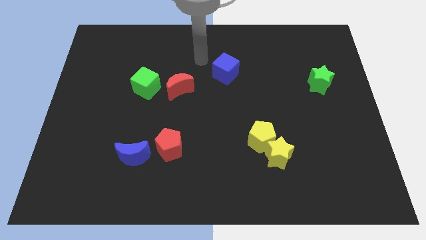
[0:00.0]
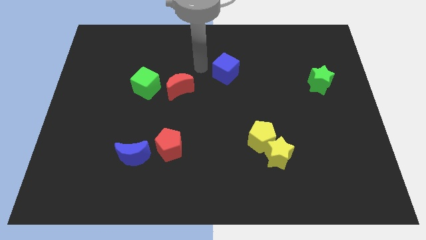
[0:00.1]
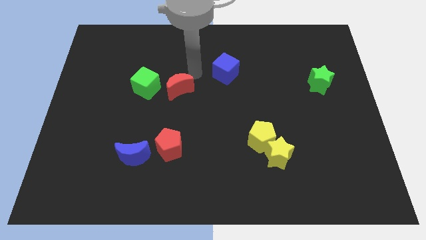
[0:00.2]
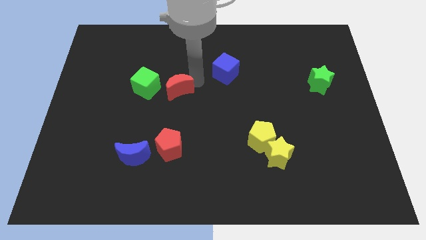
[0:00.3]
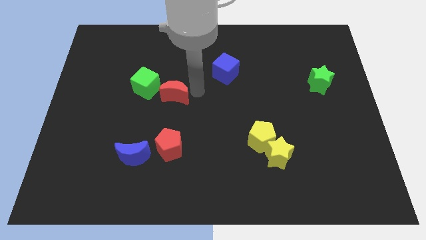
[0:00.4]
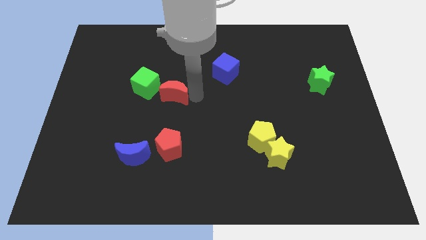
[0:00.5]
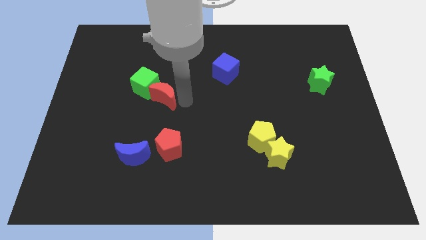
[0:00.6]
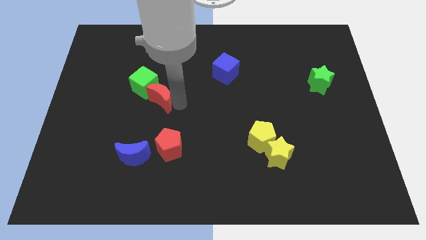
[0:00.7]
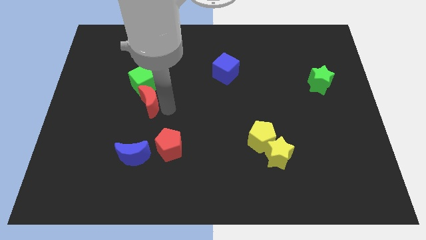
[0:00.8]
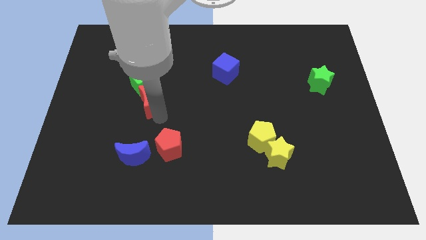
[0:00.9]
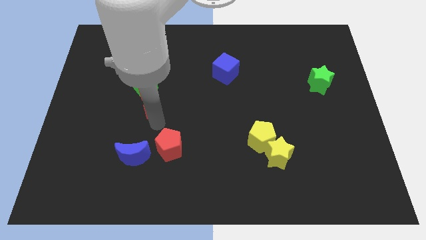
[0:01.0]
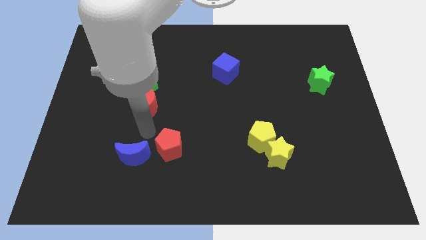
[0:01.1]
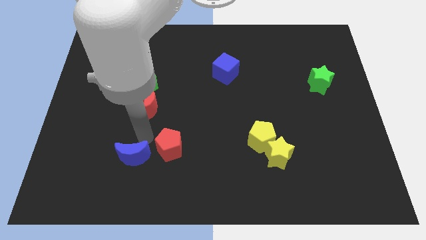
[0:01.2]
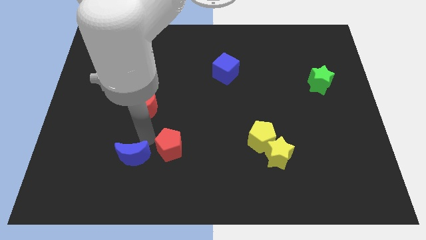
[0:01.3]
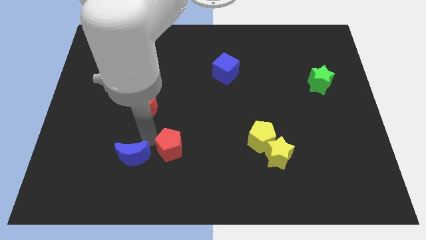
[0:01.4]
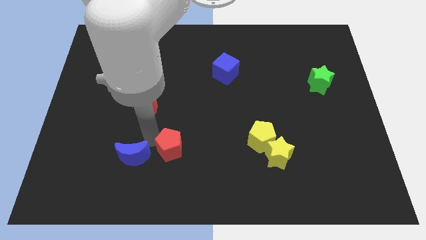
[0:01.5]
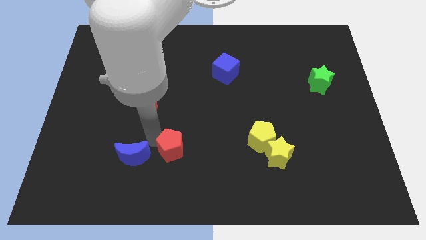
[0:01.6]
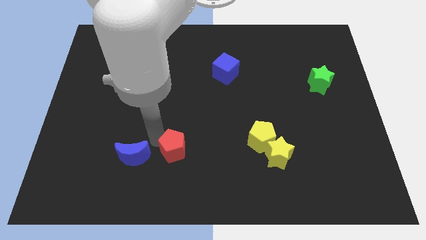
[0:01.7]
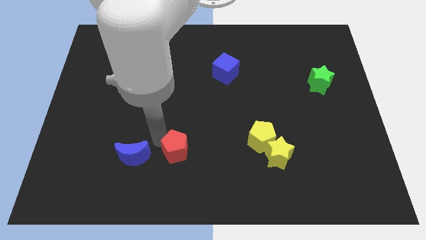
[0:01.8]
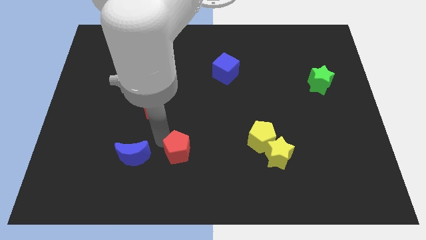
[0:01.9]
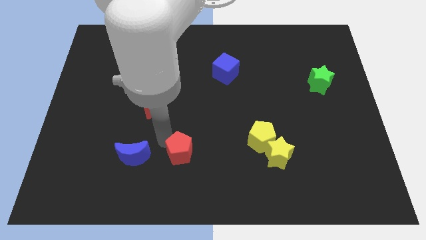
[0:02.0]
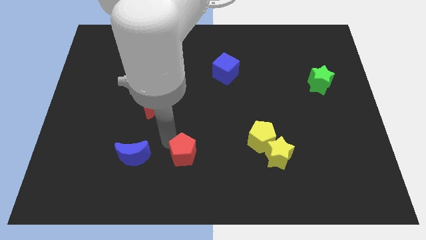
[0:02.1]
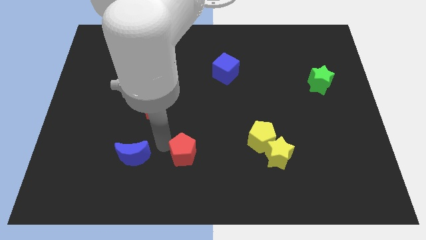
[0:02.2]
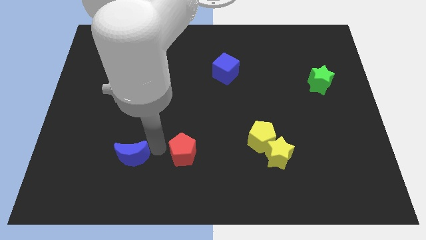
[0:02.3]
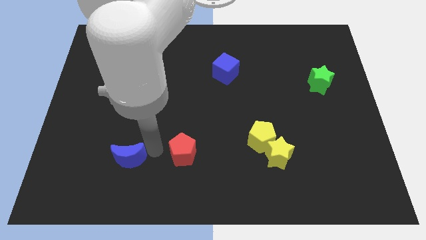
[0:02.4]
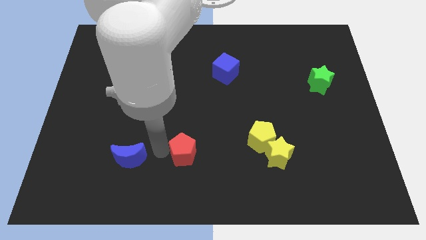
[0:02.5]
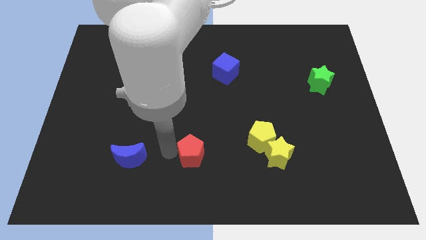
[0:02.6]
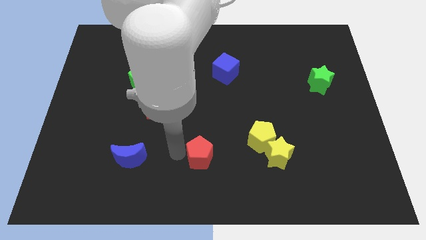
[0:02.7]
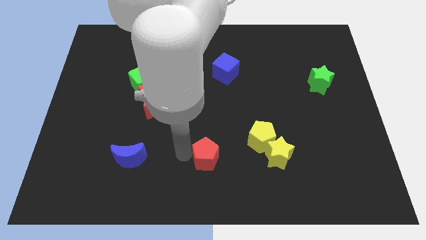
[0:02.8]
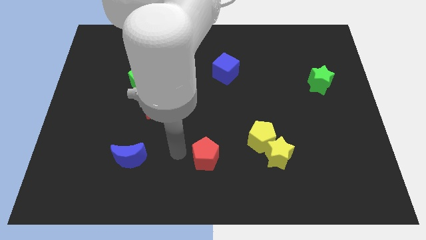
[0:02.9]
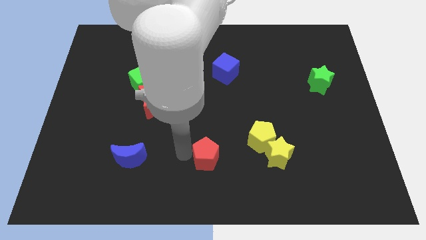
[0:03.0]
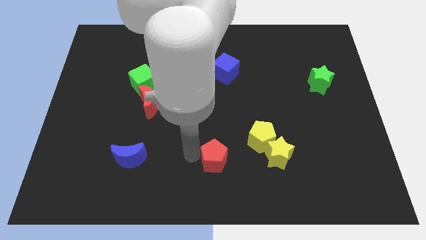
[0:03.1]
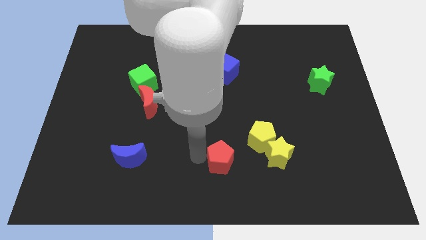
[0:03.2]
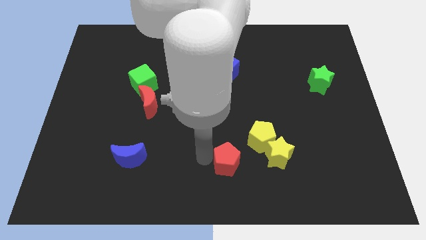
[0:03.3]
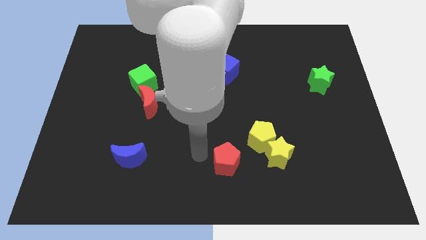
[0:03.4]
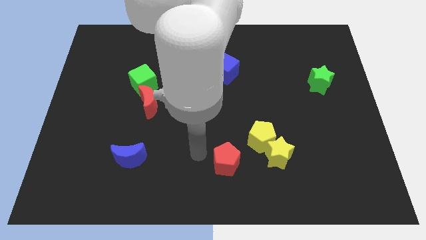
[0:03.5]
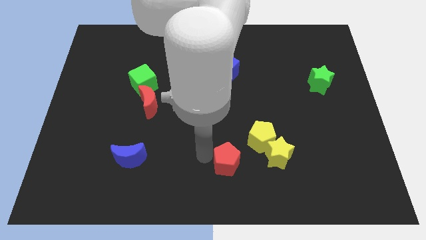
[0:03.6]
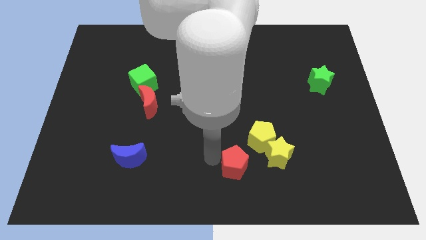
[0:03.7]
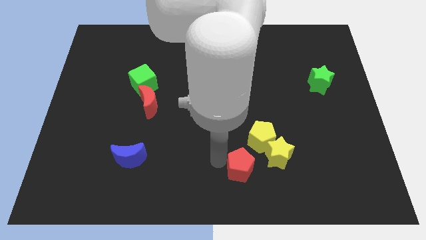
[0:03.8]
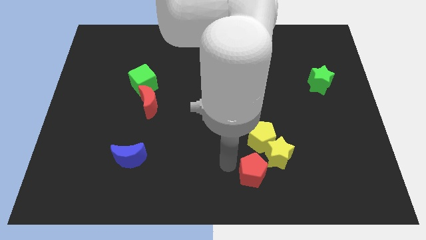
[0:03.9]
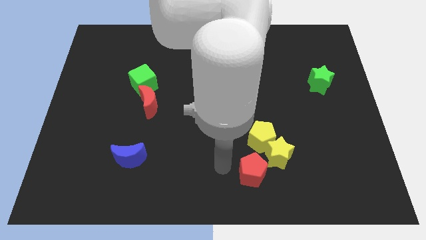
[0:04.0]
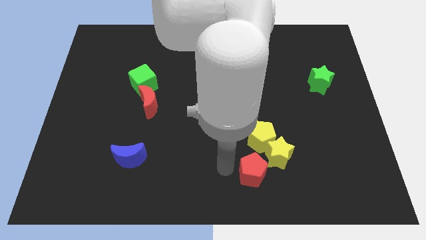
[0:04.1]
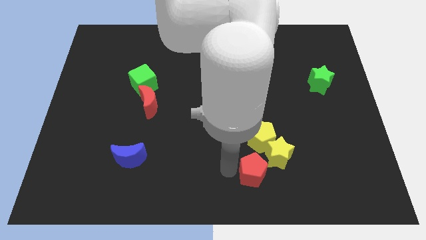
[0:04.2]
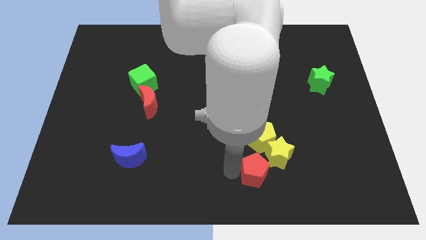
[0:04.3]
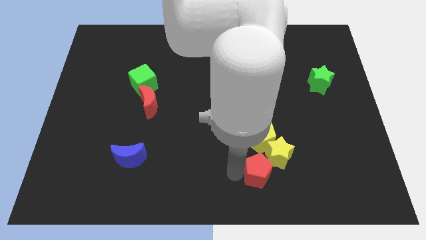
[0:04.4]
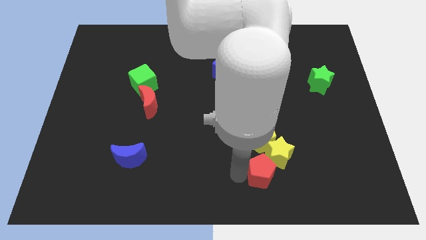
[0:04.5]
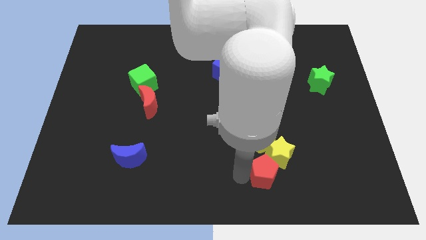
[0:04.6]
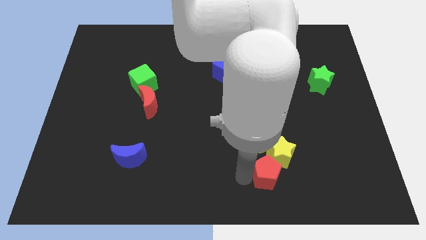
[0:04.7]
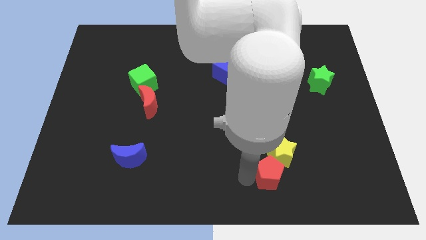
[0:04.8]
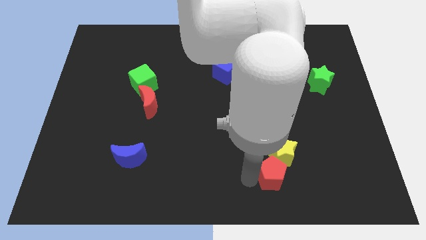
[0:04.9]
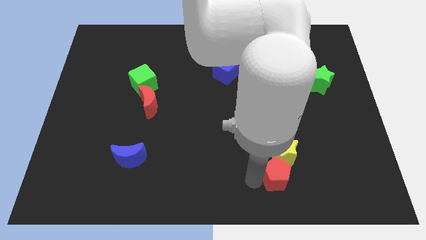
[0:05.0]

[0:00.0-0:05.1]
push the red pentagon right

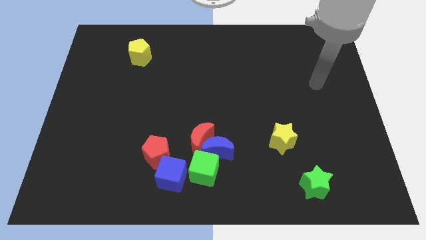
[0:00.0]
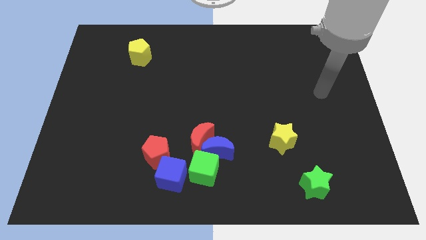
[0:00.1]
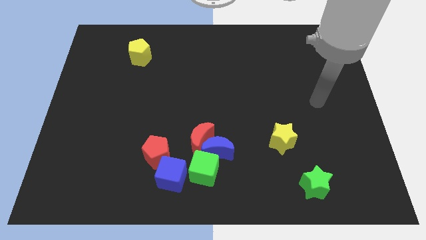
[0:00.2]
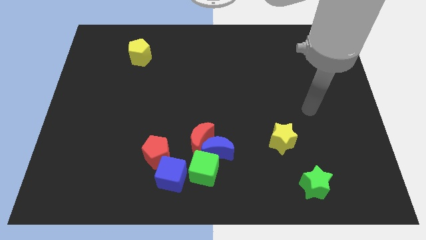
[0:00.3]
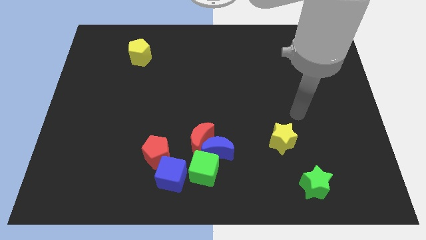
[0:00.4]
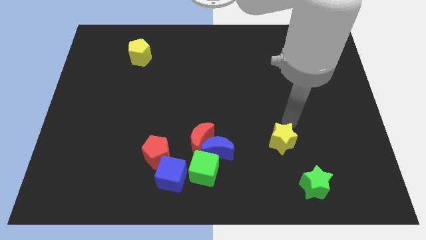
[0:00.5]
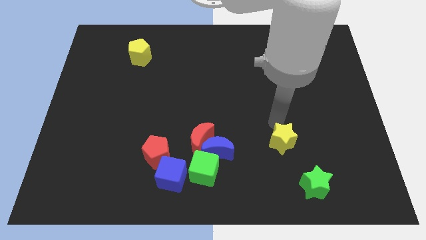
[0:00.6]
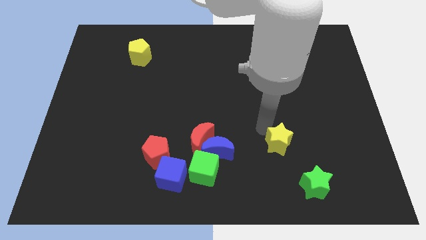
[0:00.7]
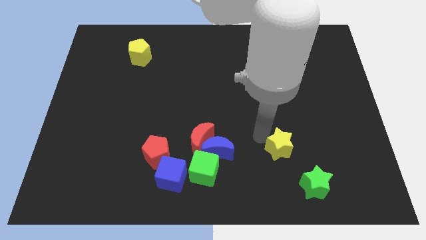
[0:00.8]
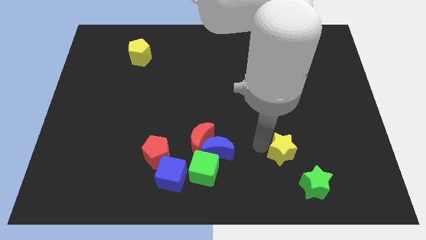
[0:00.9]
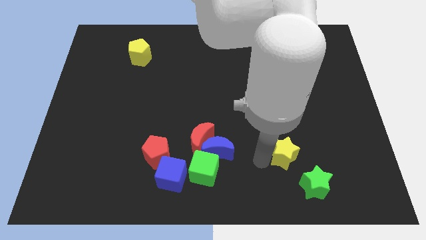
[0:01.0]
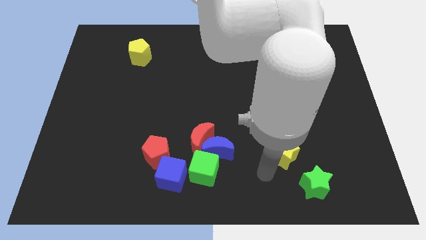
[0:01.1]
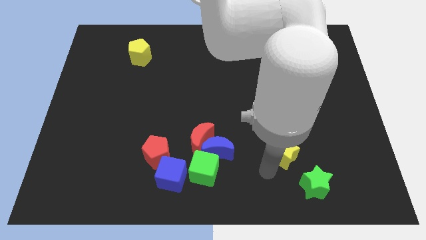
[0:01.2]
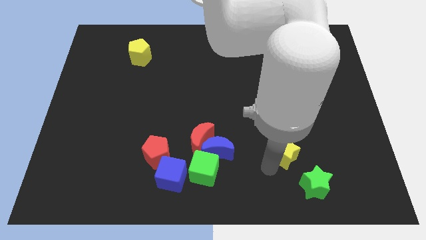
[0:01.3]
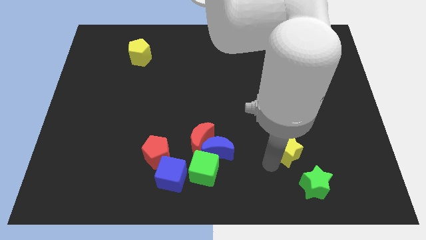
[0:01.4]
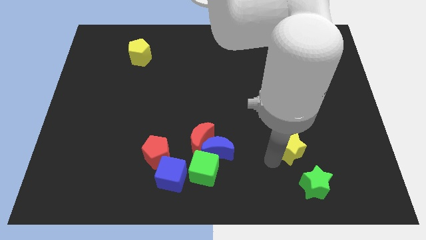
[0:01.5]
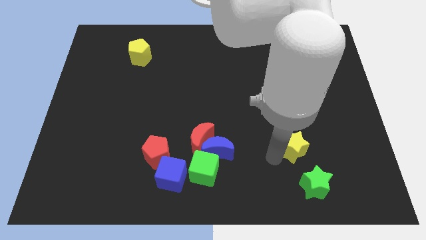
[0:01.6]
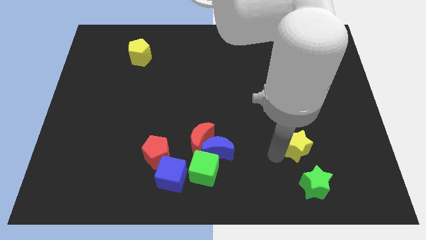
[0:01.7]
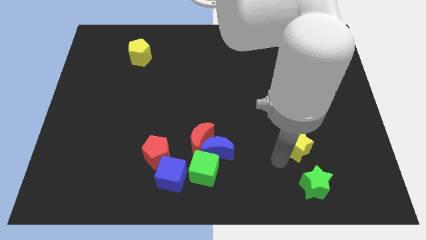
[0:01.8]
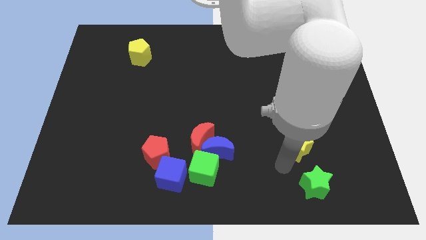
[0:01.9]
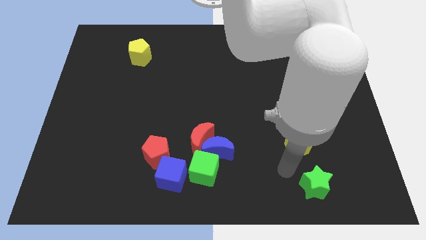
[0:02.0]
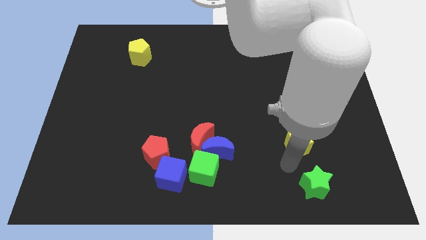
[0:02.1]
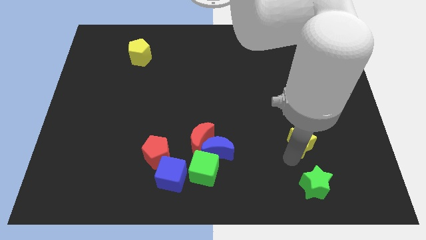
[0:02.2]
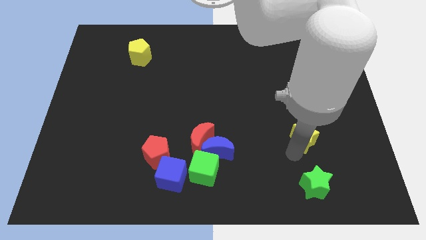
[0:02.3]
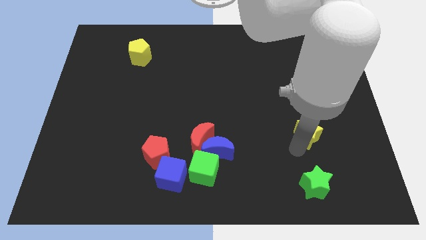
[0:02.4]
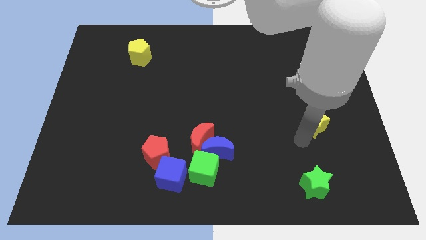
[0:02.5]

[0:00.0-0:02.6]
move the yellow star up and right a little bit

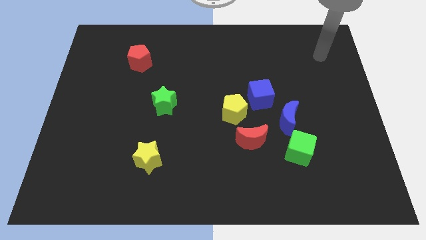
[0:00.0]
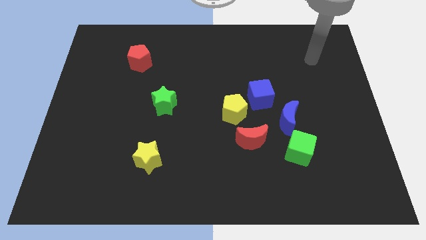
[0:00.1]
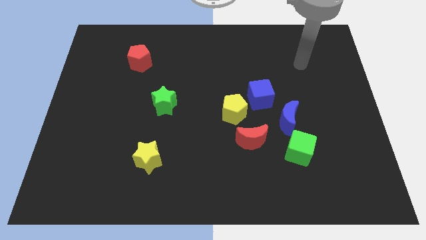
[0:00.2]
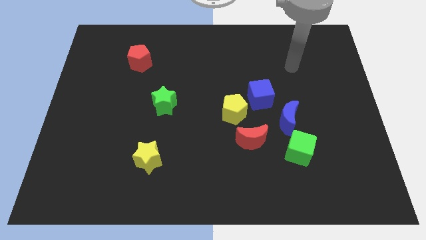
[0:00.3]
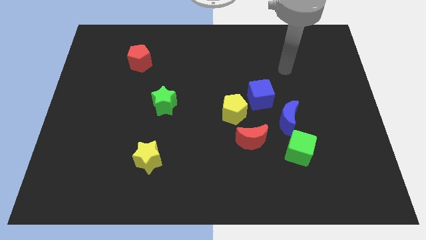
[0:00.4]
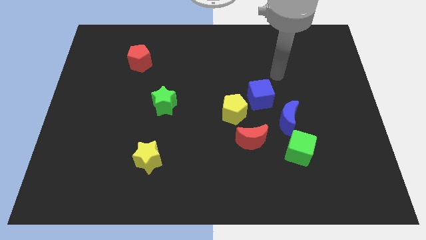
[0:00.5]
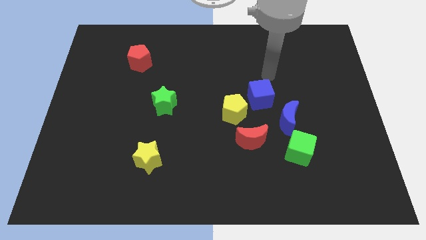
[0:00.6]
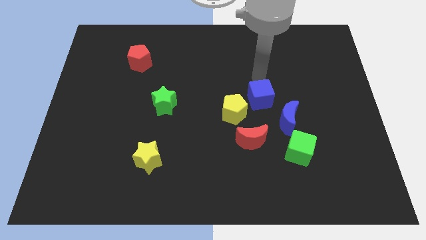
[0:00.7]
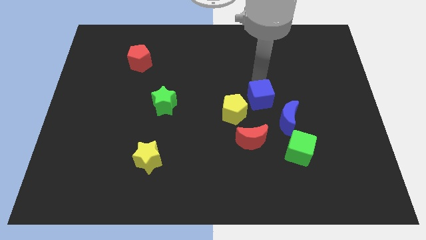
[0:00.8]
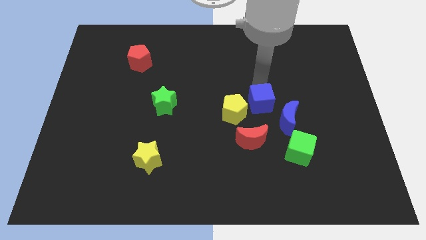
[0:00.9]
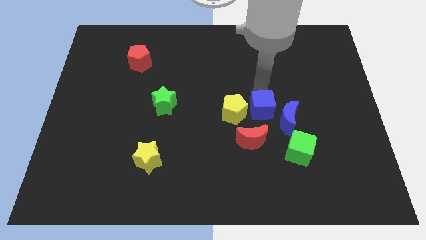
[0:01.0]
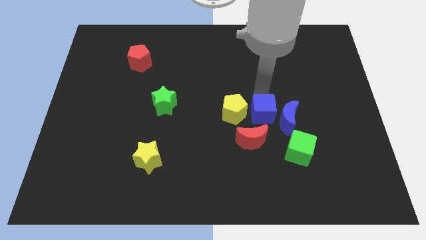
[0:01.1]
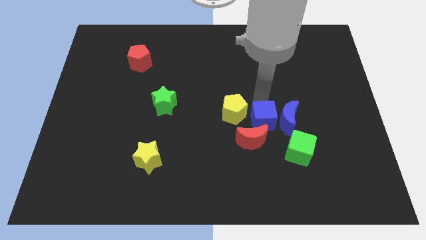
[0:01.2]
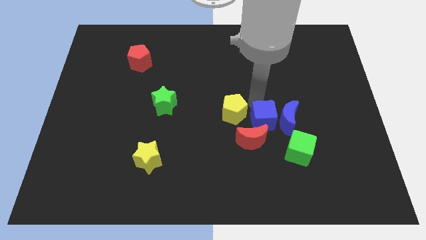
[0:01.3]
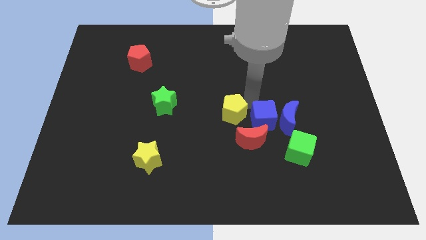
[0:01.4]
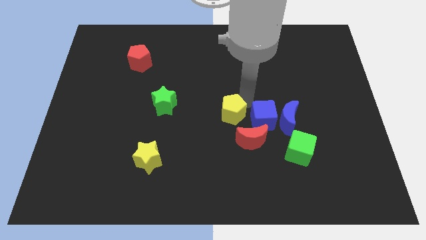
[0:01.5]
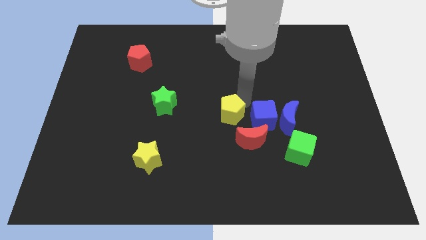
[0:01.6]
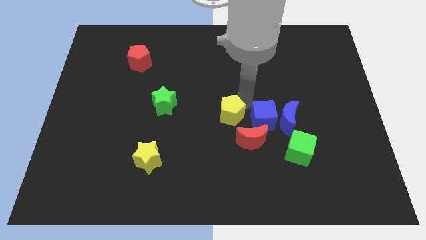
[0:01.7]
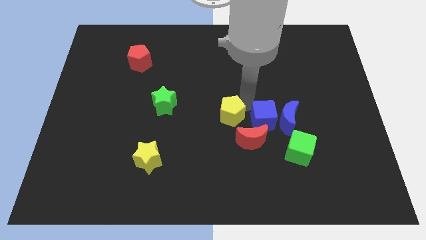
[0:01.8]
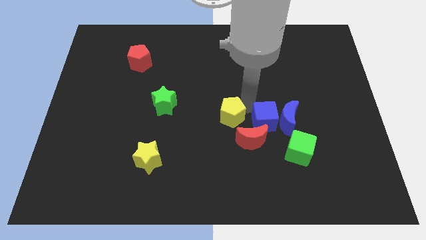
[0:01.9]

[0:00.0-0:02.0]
push the blue cube slightly downwards
